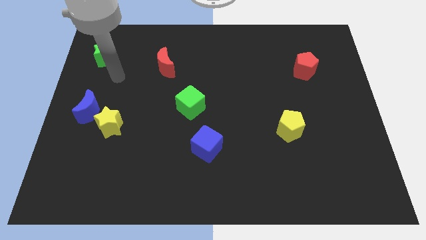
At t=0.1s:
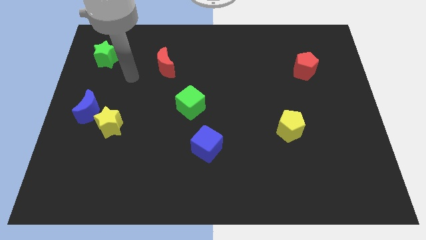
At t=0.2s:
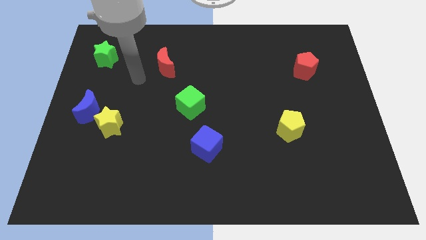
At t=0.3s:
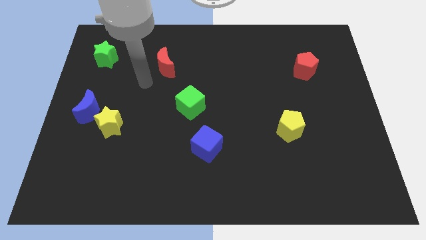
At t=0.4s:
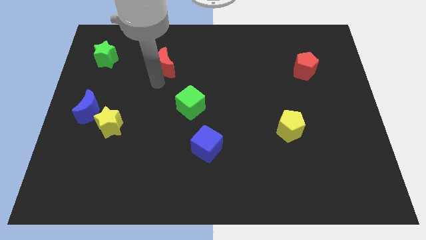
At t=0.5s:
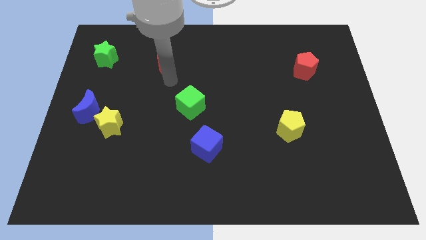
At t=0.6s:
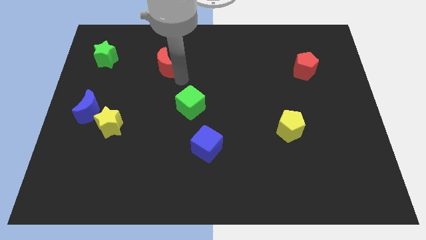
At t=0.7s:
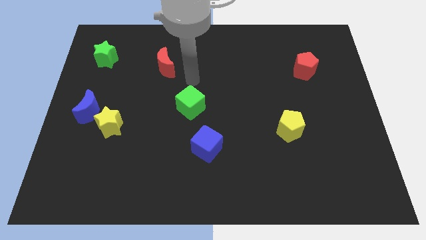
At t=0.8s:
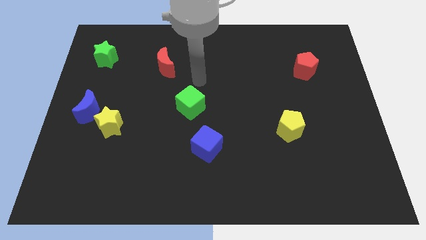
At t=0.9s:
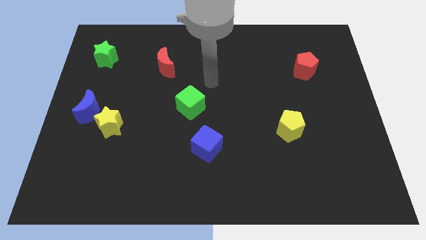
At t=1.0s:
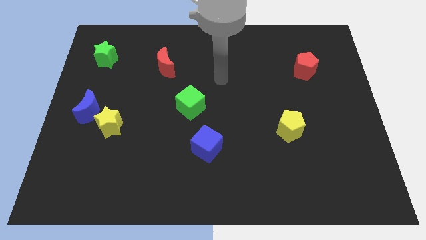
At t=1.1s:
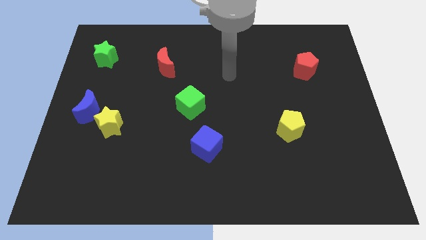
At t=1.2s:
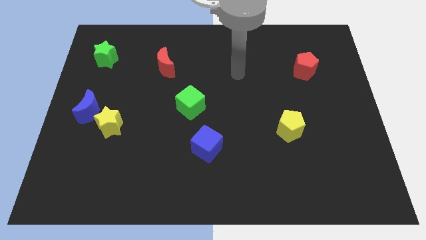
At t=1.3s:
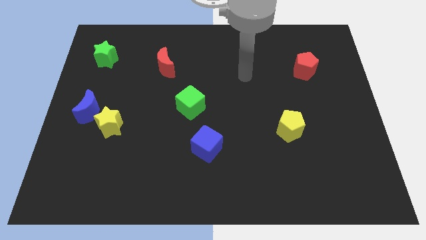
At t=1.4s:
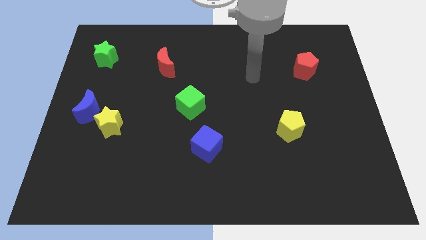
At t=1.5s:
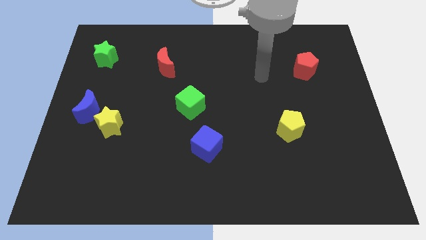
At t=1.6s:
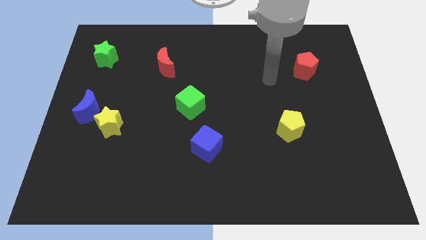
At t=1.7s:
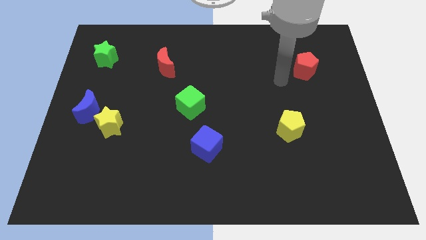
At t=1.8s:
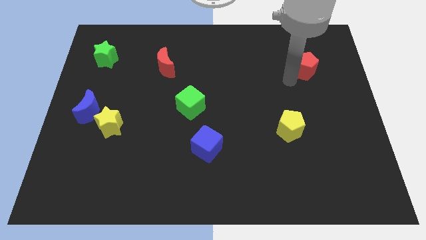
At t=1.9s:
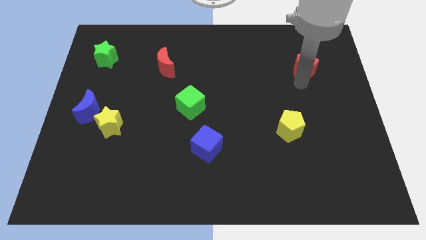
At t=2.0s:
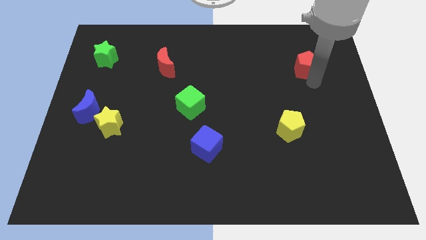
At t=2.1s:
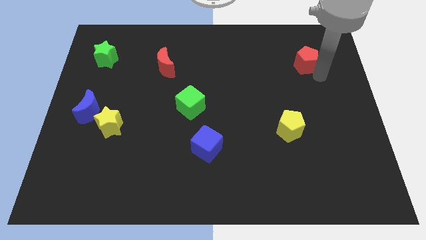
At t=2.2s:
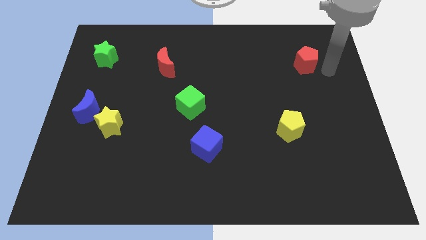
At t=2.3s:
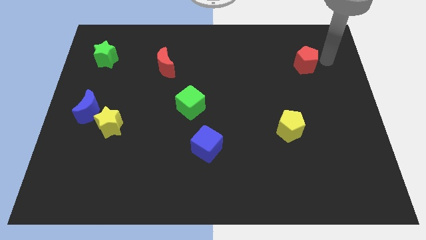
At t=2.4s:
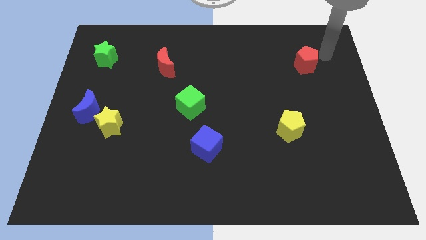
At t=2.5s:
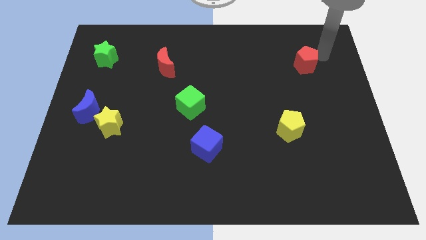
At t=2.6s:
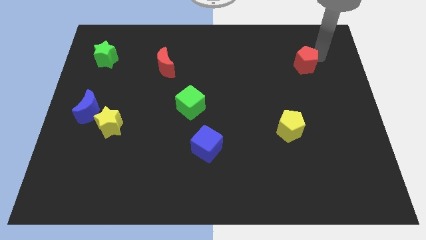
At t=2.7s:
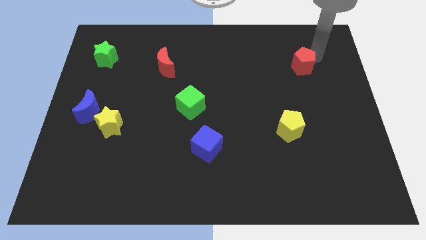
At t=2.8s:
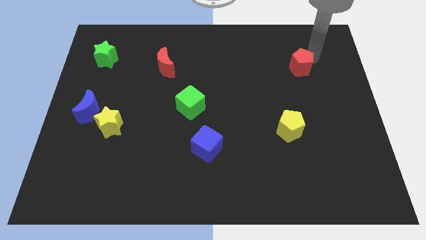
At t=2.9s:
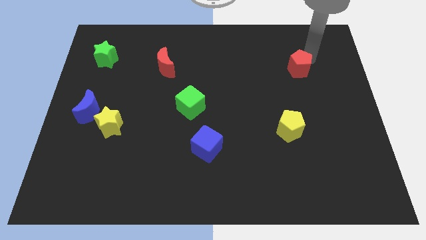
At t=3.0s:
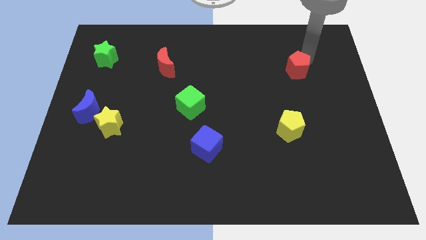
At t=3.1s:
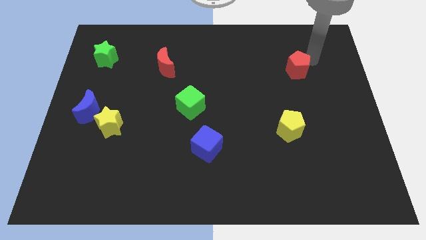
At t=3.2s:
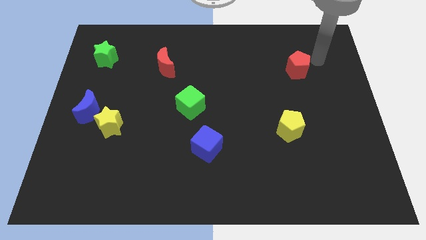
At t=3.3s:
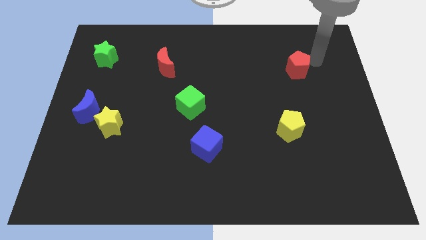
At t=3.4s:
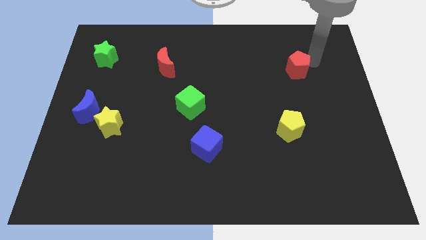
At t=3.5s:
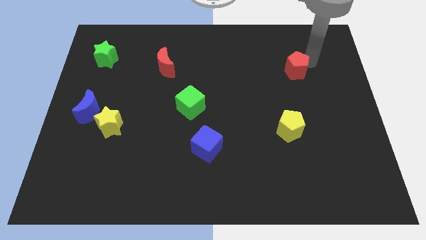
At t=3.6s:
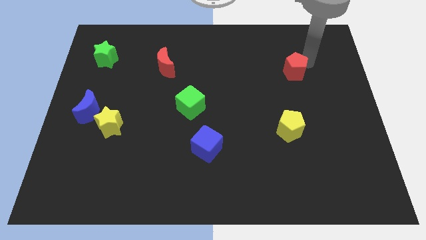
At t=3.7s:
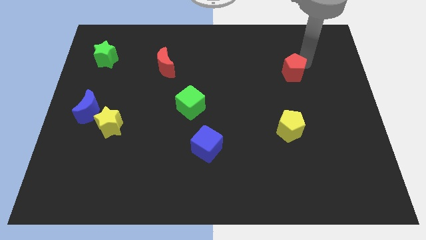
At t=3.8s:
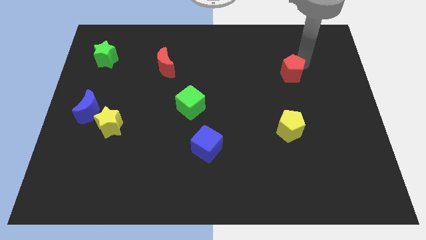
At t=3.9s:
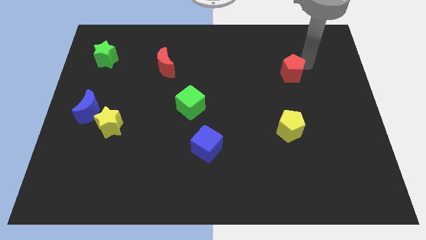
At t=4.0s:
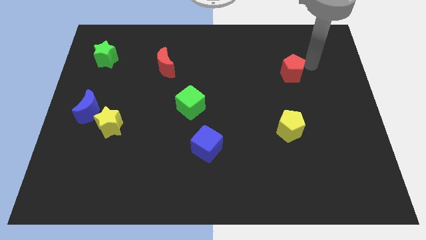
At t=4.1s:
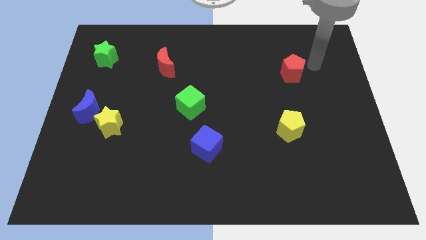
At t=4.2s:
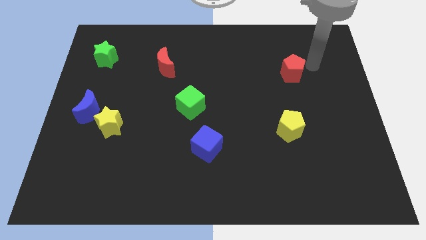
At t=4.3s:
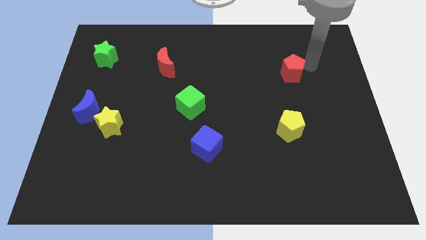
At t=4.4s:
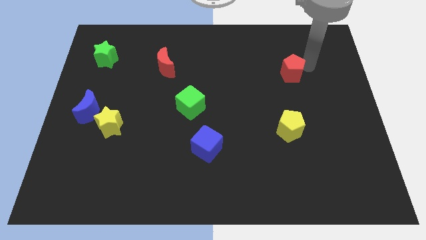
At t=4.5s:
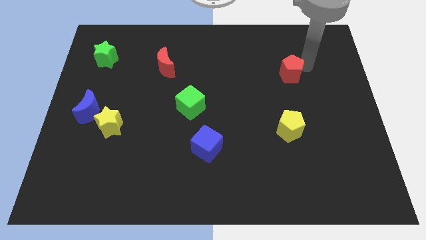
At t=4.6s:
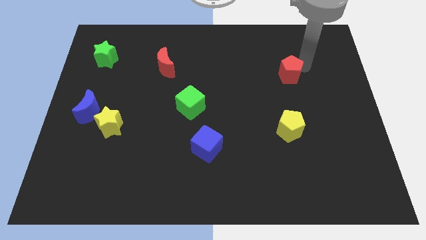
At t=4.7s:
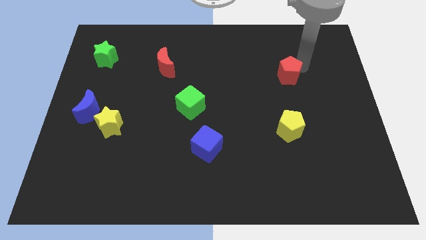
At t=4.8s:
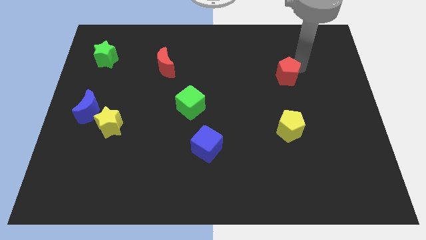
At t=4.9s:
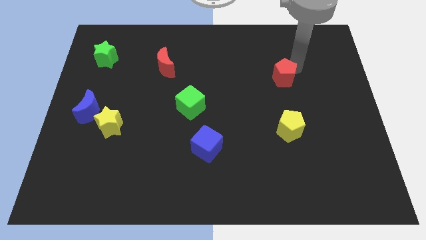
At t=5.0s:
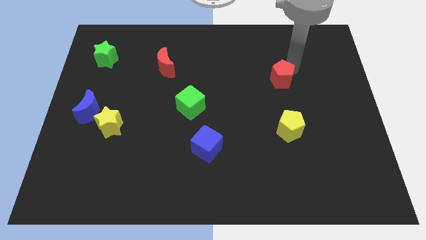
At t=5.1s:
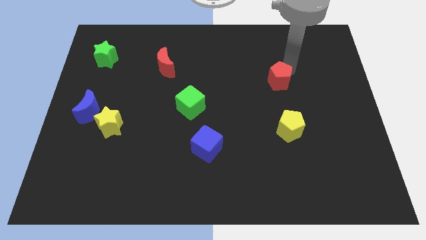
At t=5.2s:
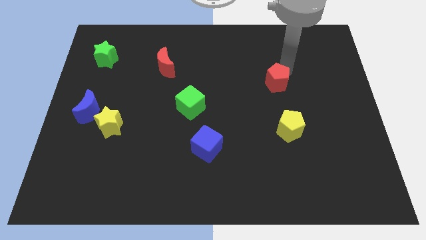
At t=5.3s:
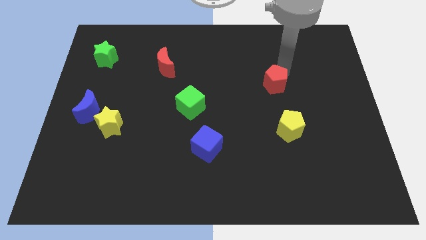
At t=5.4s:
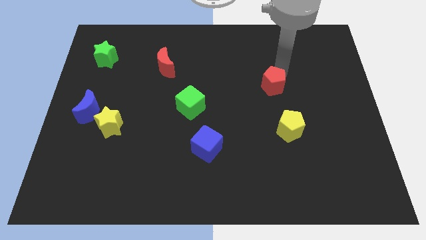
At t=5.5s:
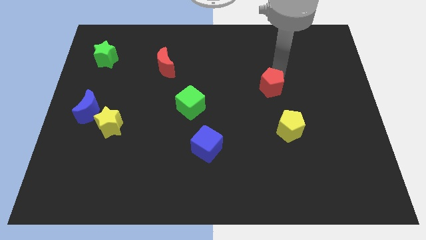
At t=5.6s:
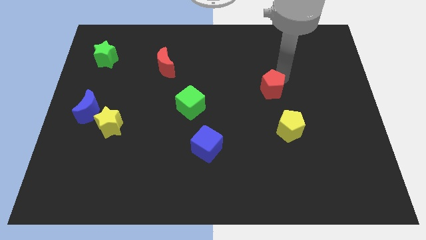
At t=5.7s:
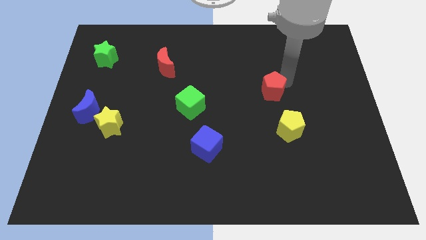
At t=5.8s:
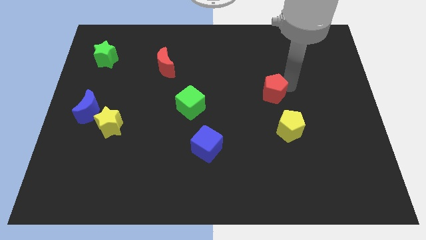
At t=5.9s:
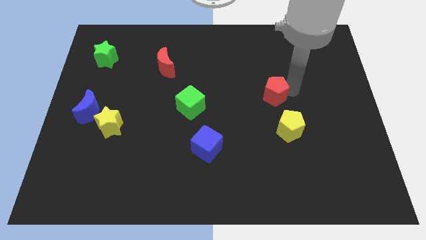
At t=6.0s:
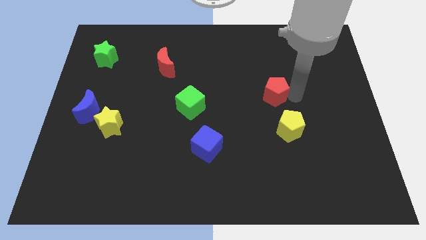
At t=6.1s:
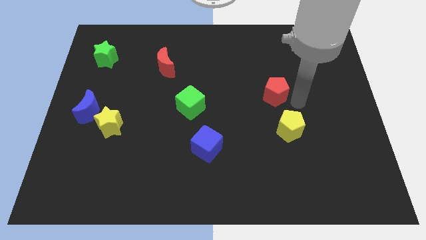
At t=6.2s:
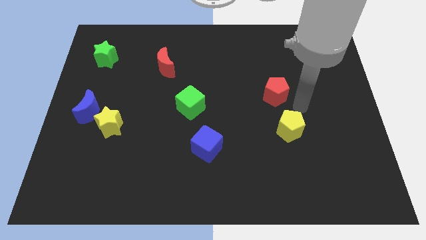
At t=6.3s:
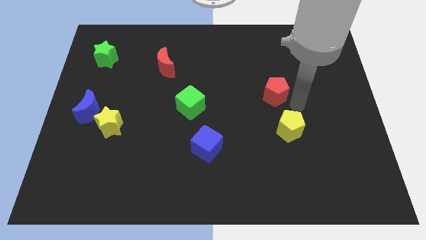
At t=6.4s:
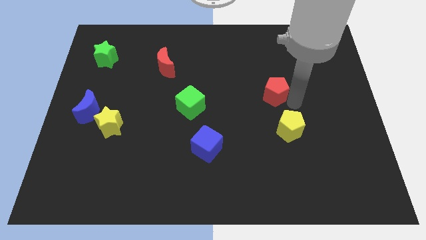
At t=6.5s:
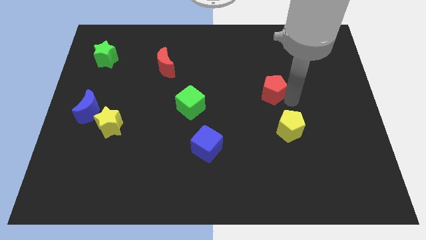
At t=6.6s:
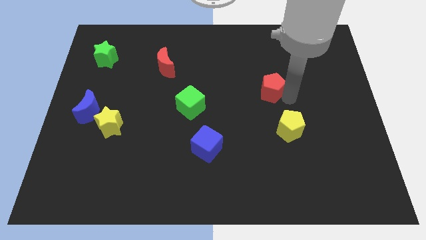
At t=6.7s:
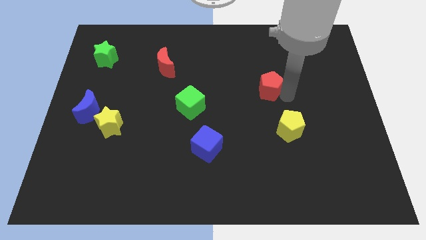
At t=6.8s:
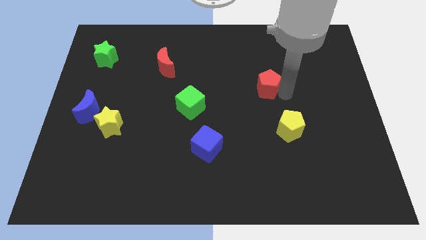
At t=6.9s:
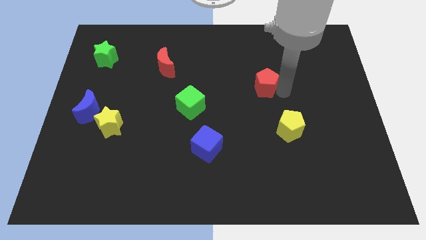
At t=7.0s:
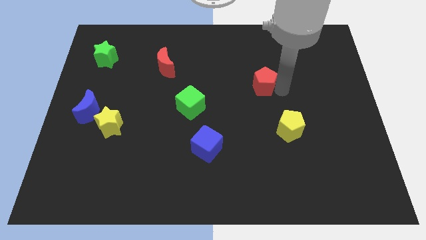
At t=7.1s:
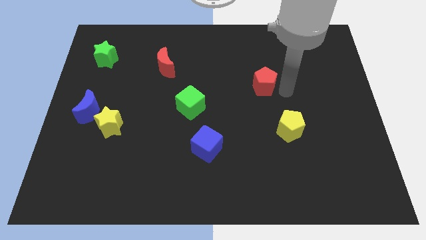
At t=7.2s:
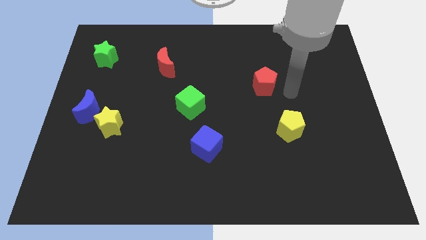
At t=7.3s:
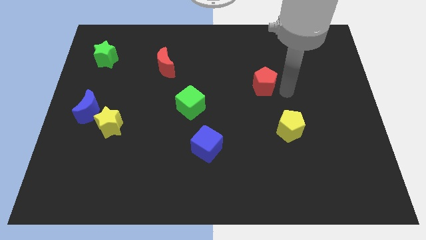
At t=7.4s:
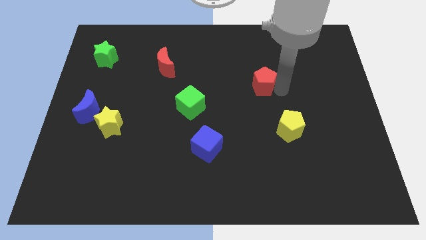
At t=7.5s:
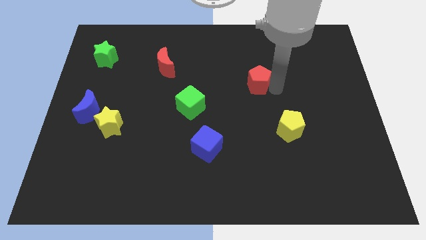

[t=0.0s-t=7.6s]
put the red pentagon to the middle of the board
